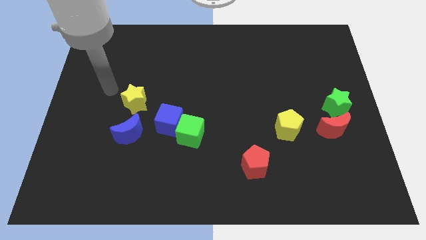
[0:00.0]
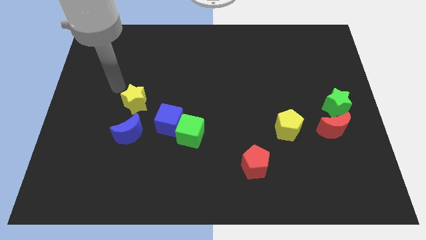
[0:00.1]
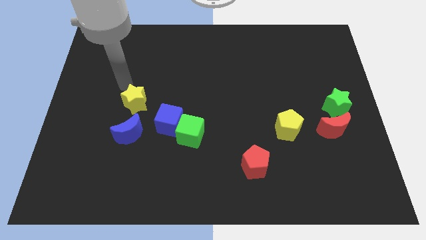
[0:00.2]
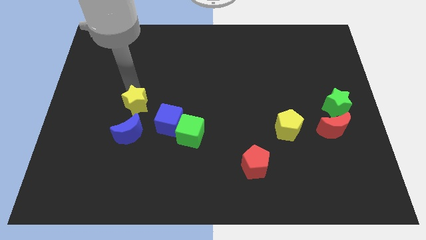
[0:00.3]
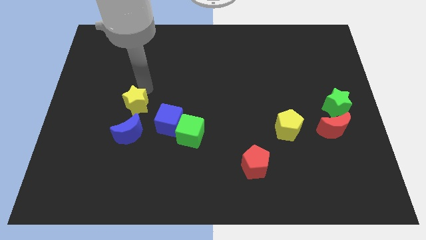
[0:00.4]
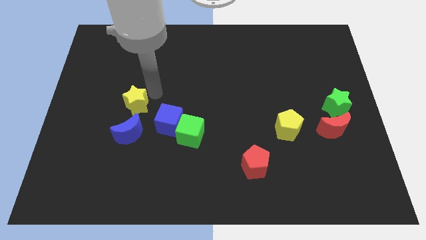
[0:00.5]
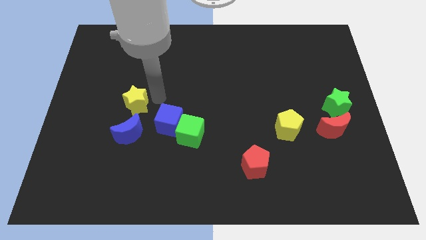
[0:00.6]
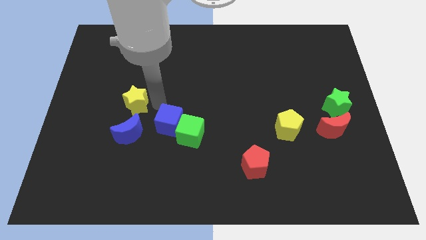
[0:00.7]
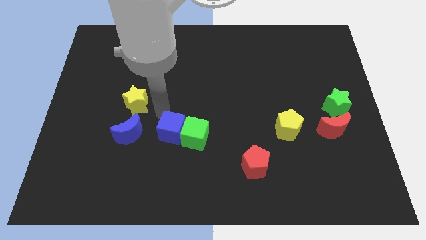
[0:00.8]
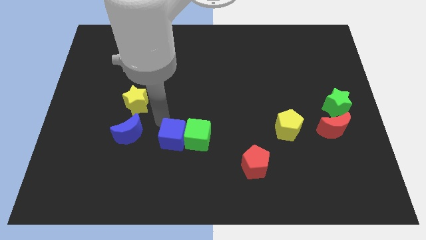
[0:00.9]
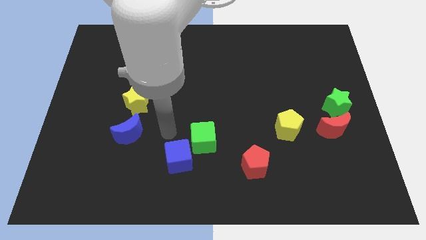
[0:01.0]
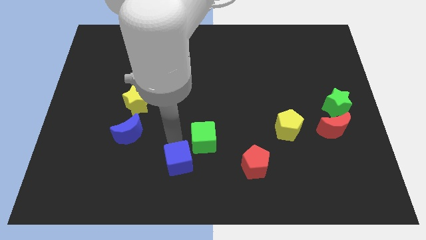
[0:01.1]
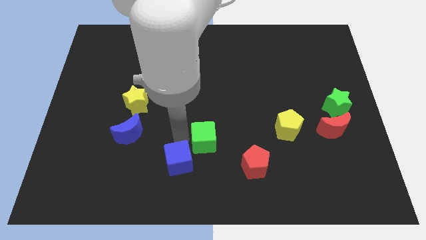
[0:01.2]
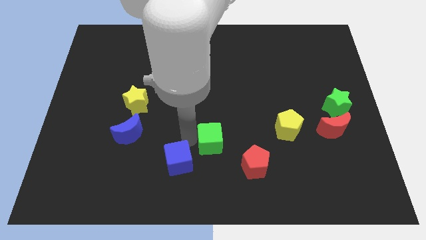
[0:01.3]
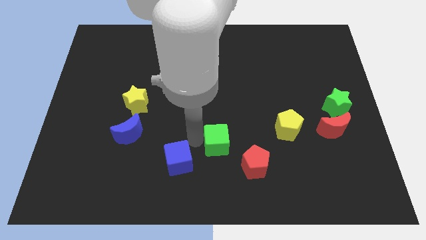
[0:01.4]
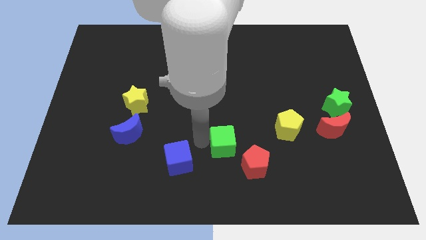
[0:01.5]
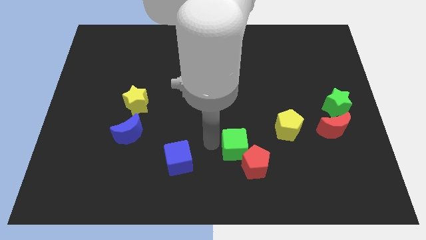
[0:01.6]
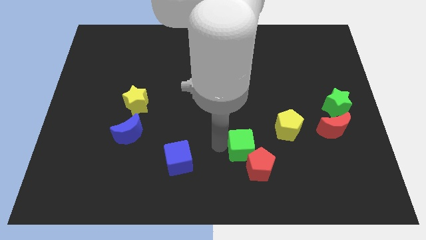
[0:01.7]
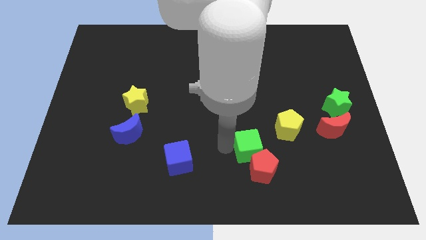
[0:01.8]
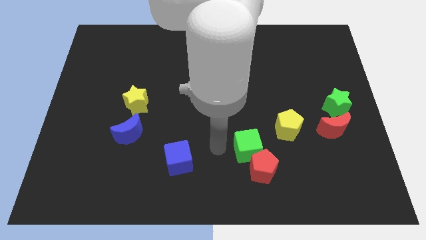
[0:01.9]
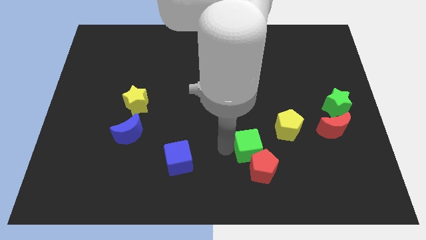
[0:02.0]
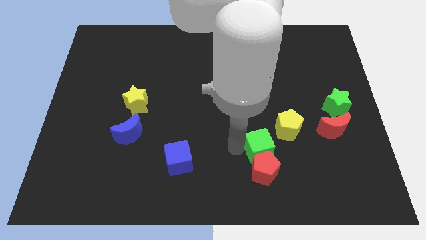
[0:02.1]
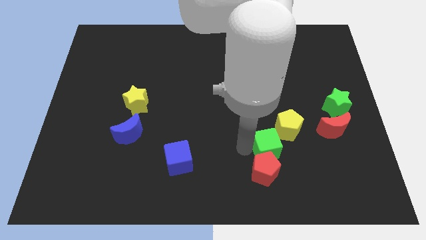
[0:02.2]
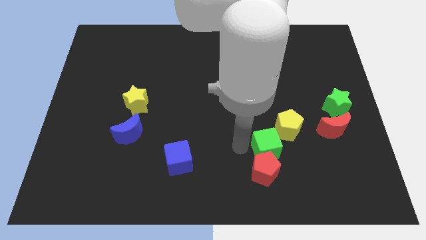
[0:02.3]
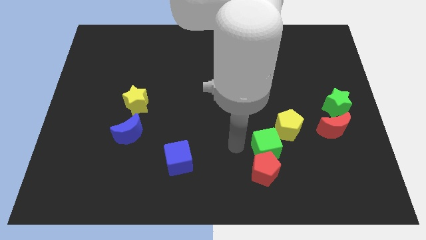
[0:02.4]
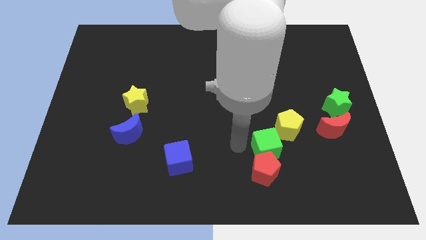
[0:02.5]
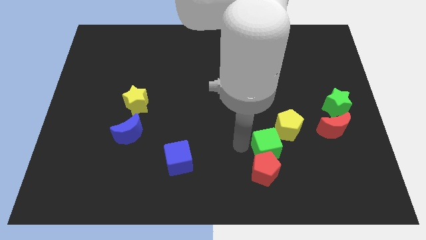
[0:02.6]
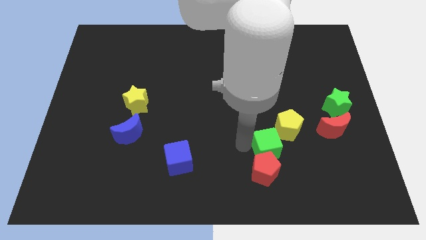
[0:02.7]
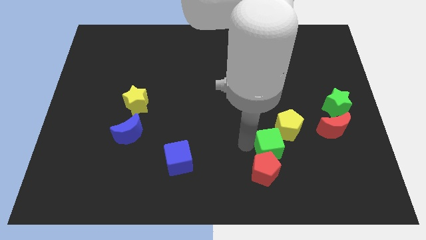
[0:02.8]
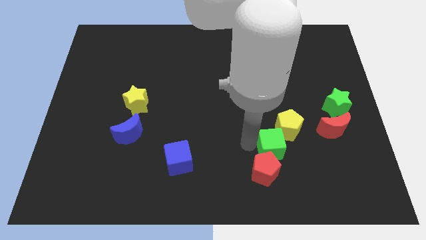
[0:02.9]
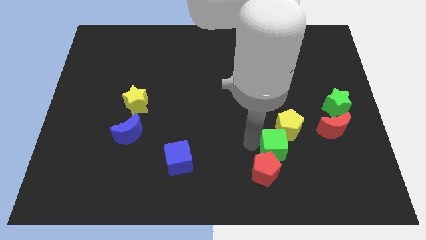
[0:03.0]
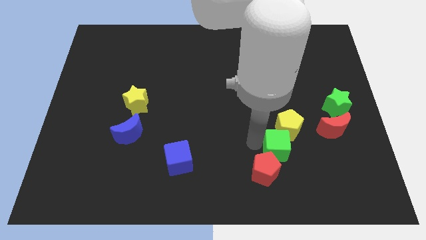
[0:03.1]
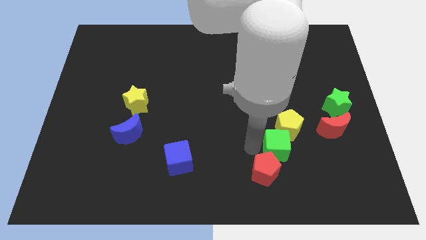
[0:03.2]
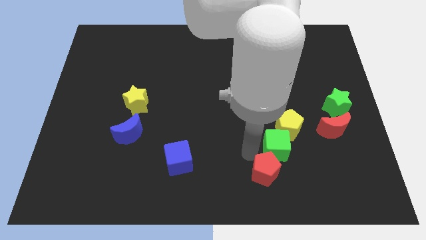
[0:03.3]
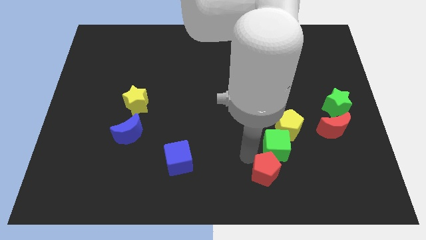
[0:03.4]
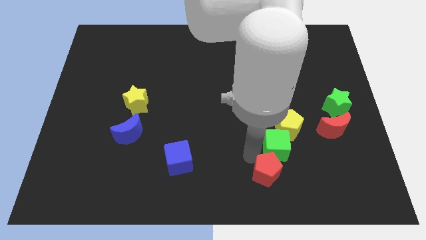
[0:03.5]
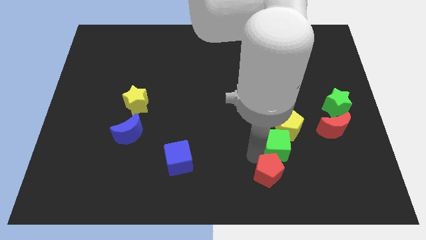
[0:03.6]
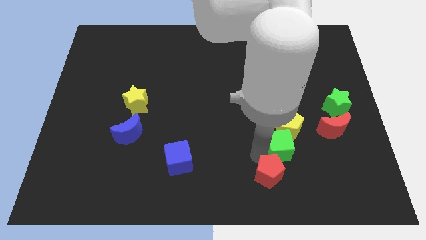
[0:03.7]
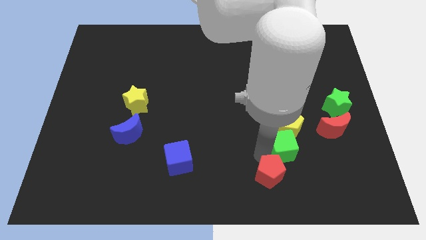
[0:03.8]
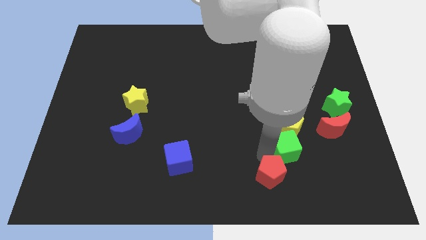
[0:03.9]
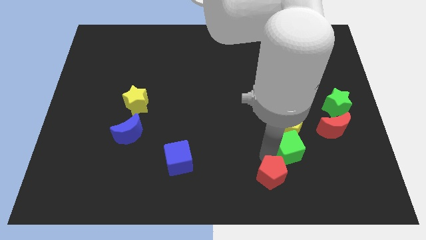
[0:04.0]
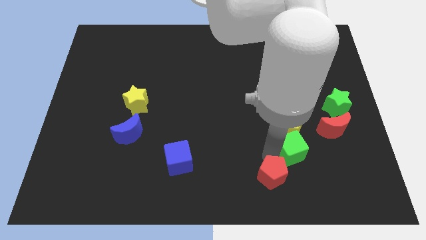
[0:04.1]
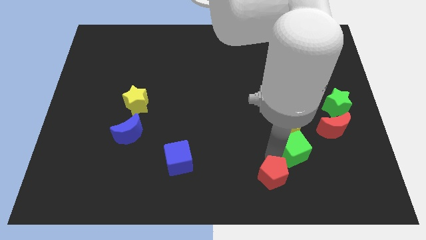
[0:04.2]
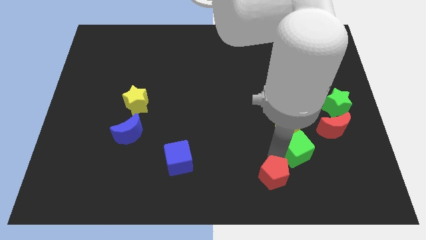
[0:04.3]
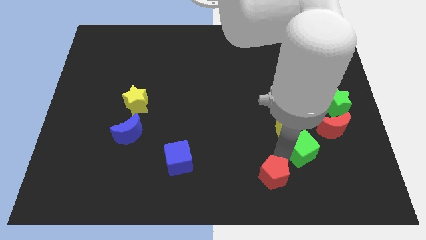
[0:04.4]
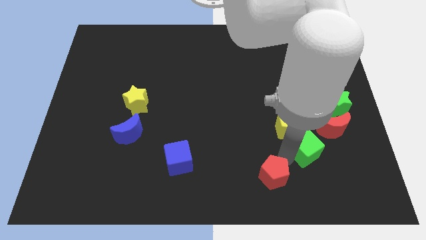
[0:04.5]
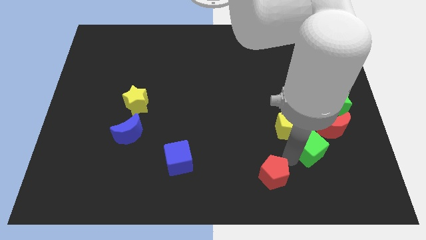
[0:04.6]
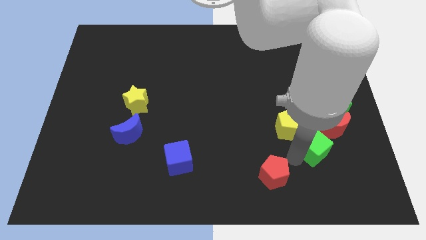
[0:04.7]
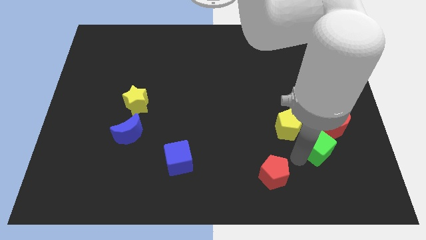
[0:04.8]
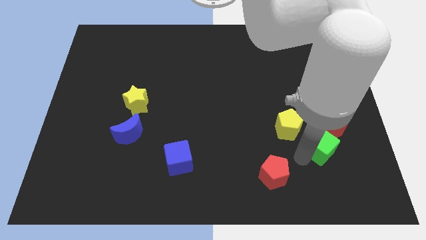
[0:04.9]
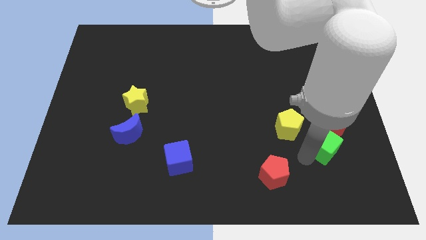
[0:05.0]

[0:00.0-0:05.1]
push the green cube towards the red moon

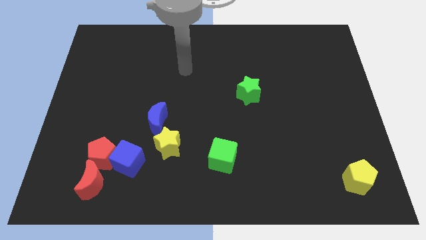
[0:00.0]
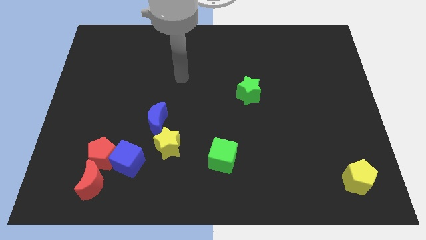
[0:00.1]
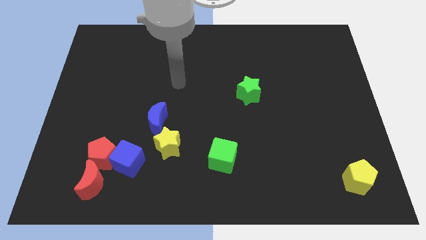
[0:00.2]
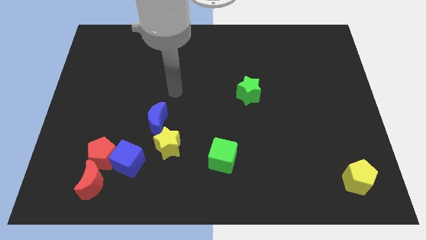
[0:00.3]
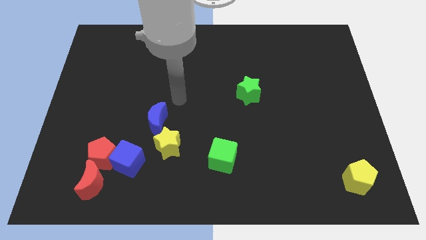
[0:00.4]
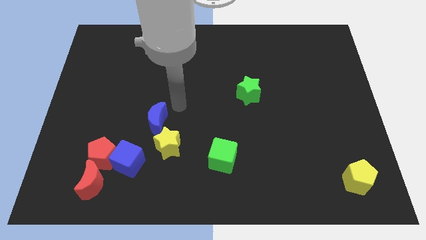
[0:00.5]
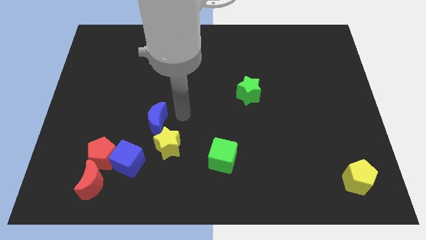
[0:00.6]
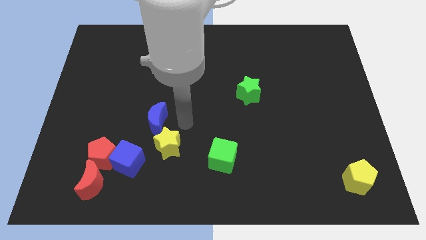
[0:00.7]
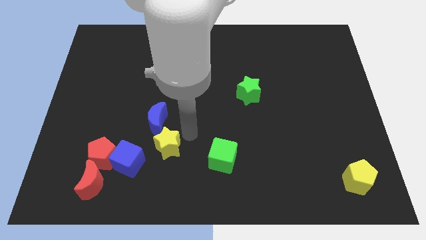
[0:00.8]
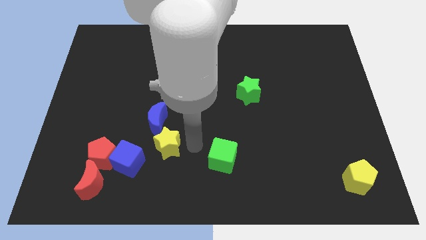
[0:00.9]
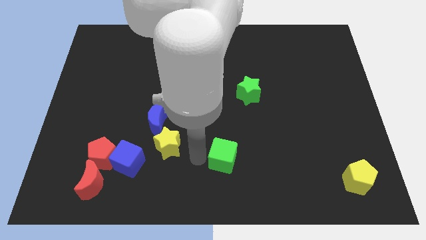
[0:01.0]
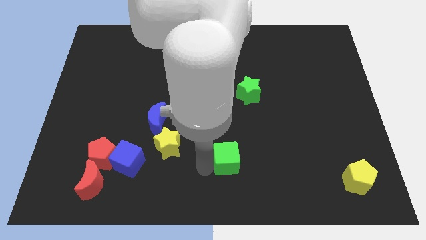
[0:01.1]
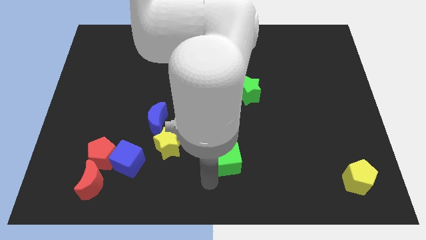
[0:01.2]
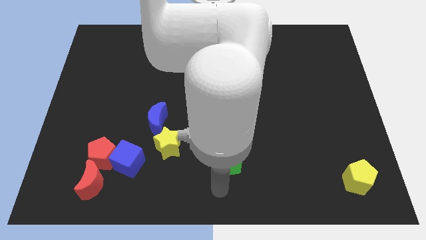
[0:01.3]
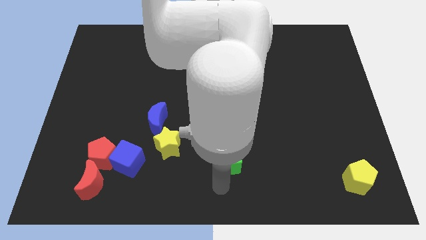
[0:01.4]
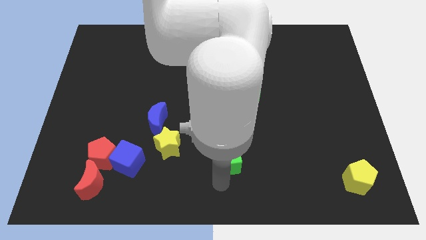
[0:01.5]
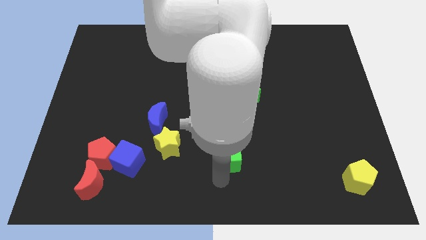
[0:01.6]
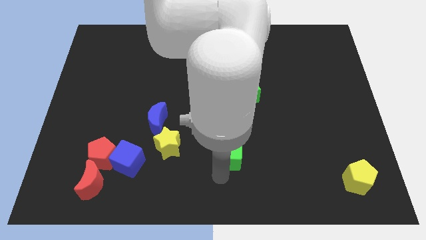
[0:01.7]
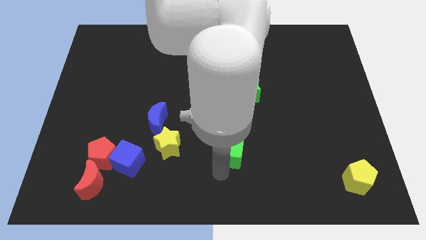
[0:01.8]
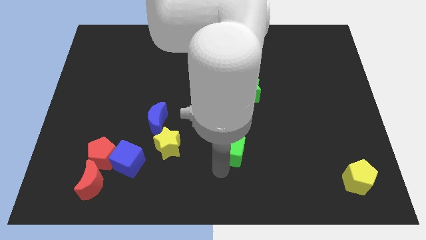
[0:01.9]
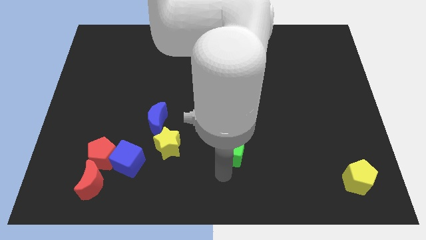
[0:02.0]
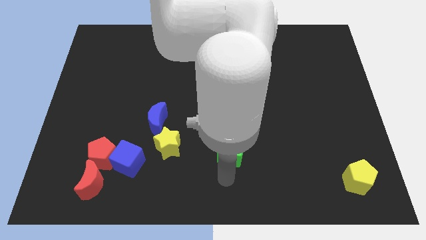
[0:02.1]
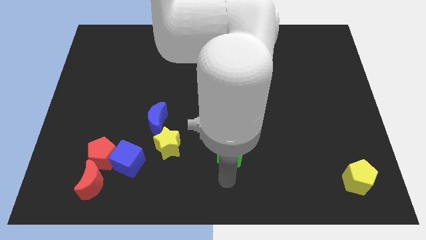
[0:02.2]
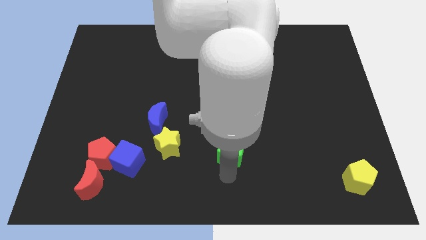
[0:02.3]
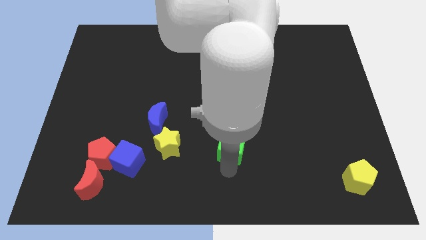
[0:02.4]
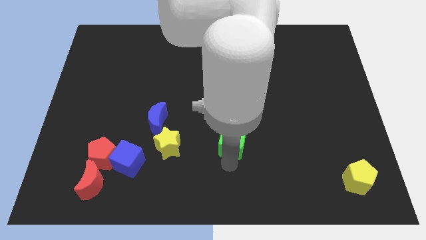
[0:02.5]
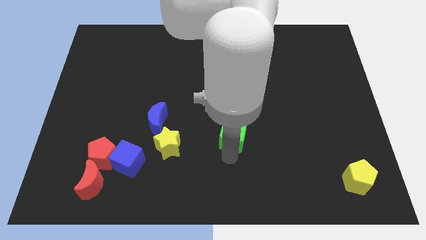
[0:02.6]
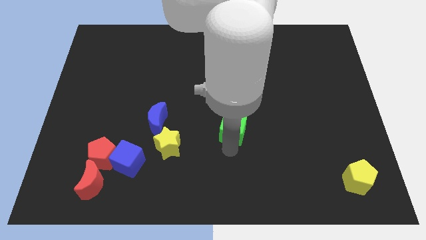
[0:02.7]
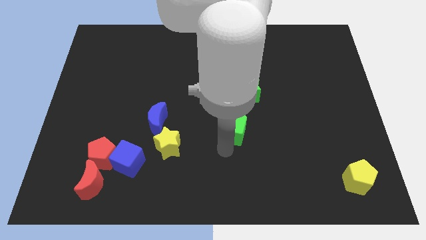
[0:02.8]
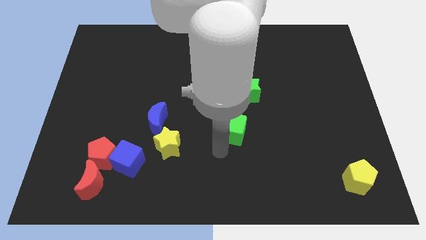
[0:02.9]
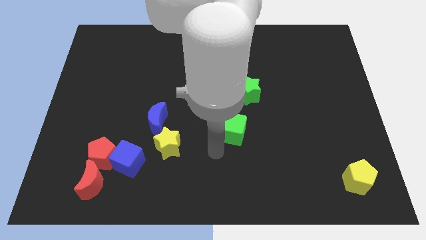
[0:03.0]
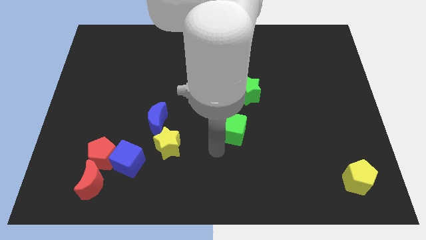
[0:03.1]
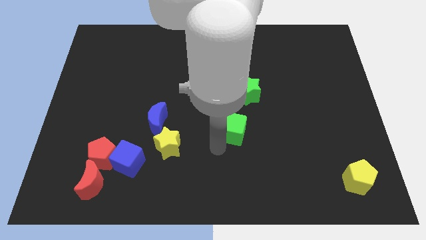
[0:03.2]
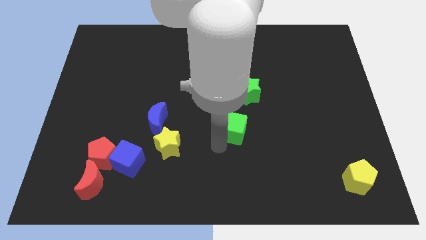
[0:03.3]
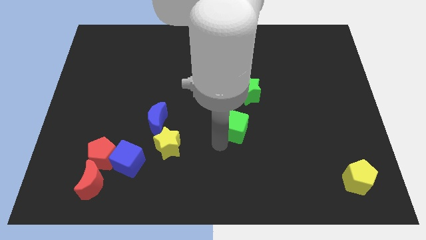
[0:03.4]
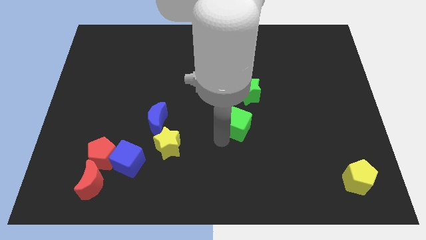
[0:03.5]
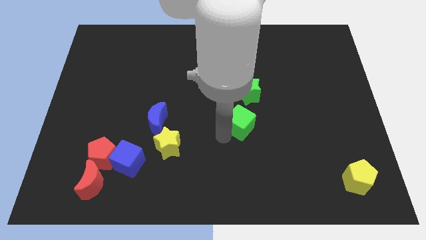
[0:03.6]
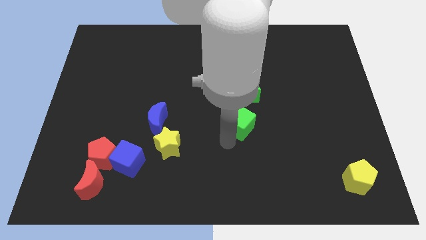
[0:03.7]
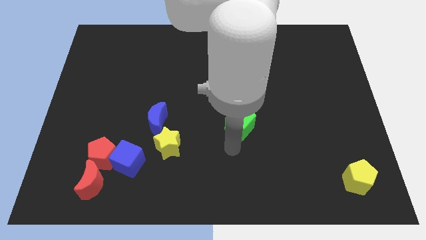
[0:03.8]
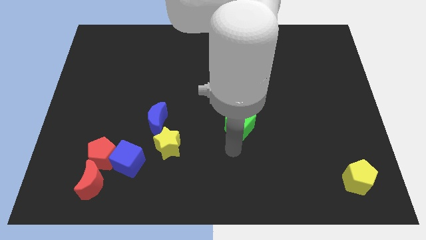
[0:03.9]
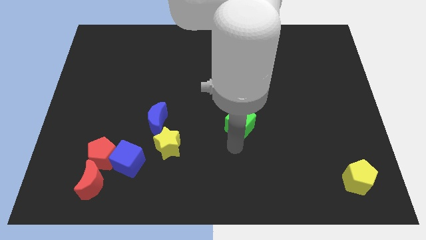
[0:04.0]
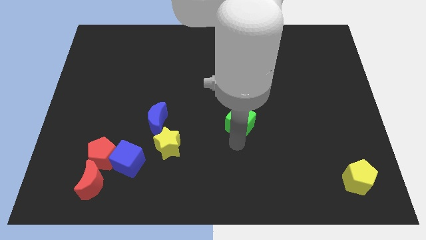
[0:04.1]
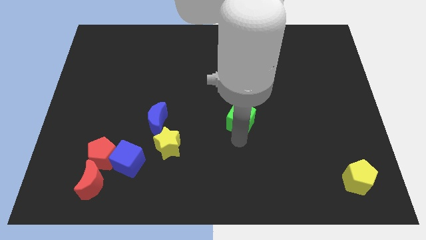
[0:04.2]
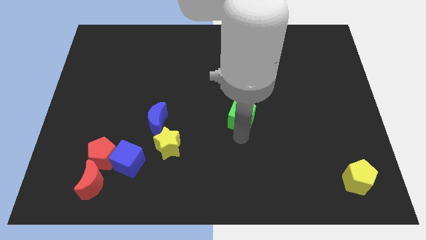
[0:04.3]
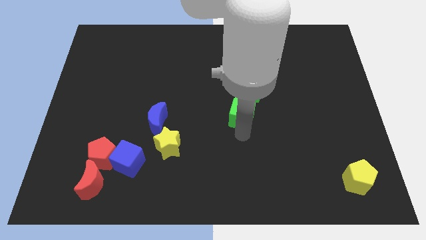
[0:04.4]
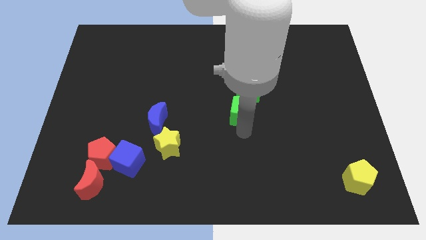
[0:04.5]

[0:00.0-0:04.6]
slide the green cube next to the green star
